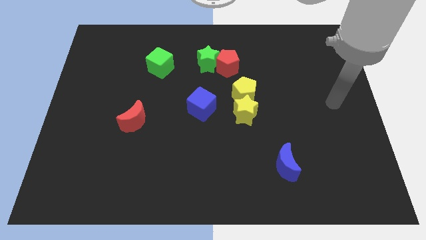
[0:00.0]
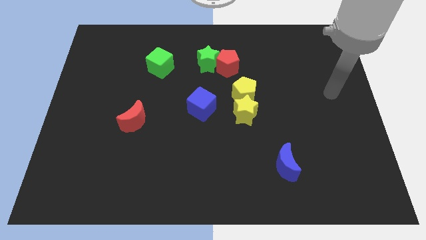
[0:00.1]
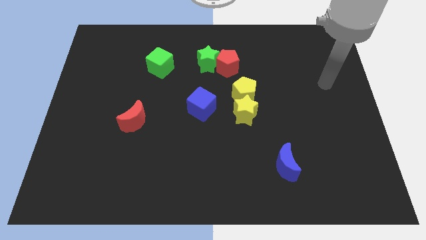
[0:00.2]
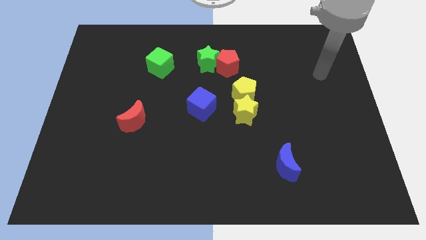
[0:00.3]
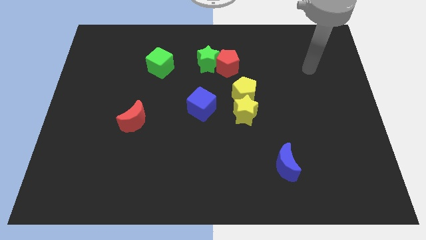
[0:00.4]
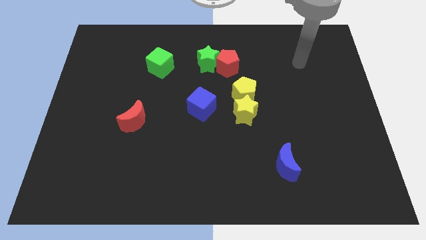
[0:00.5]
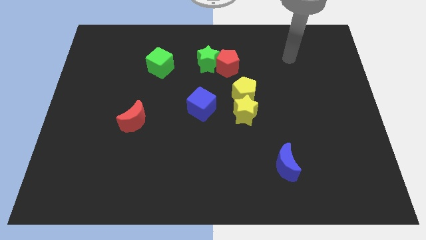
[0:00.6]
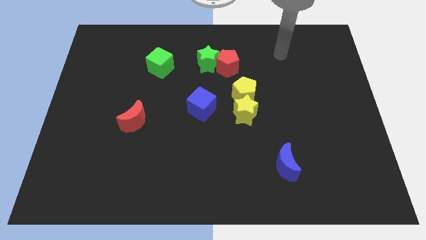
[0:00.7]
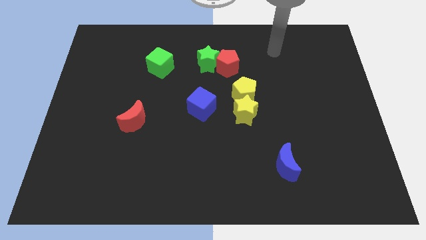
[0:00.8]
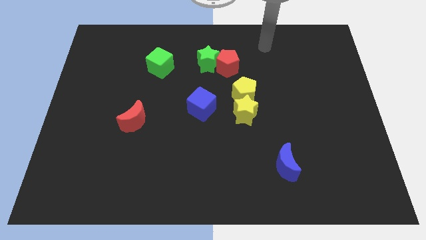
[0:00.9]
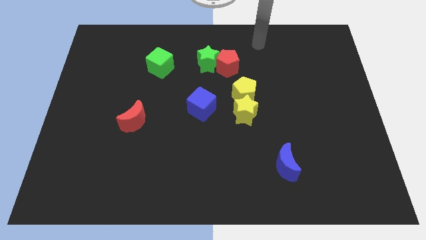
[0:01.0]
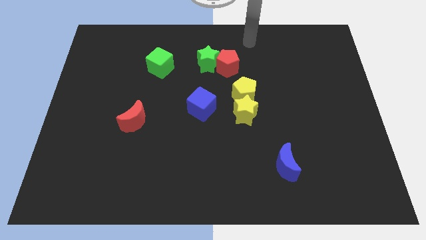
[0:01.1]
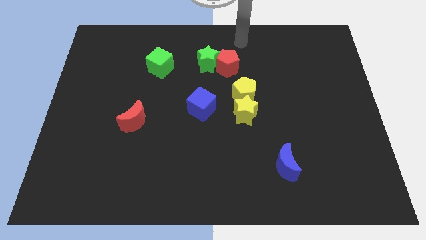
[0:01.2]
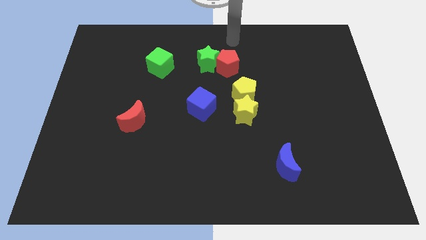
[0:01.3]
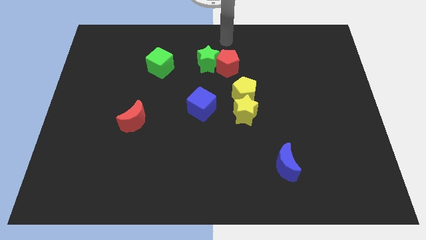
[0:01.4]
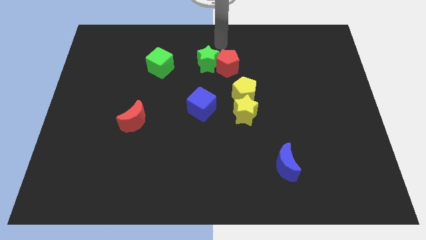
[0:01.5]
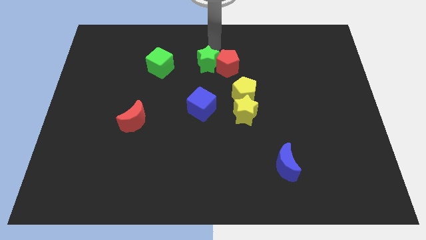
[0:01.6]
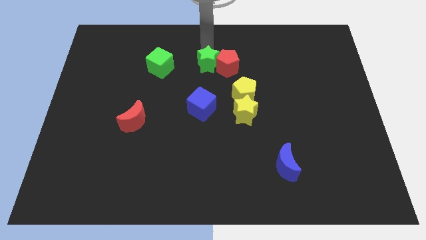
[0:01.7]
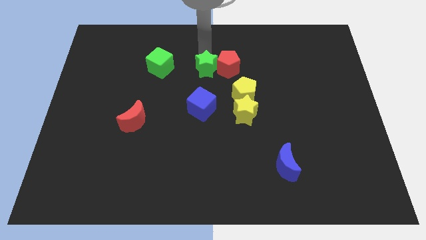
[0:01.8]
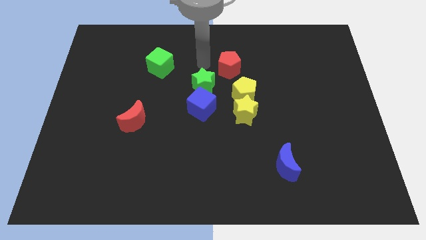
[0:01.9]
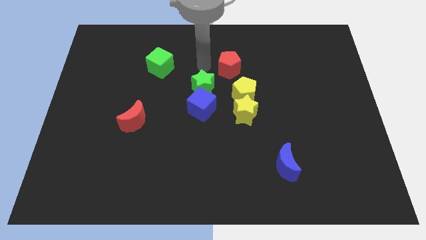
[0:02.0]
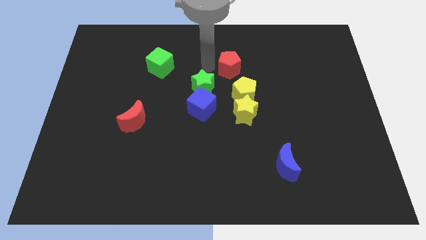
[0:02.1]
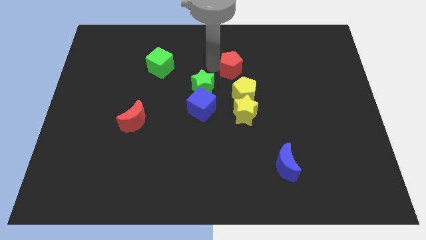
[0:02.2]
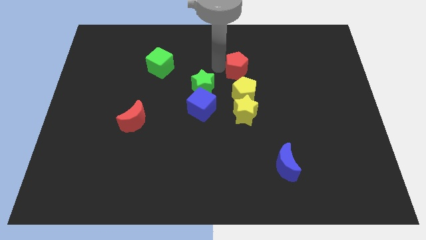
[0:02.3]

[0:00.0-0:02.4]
pull the red pentagon apart from the green star

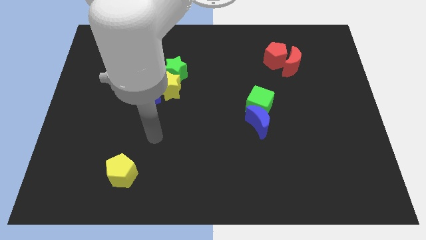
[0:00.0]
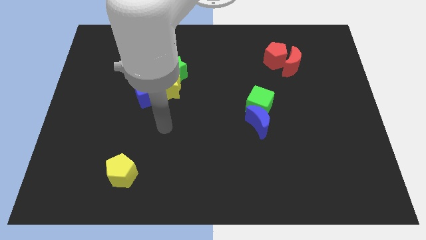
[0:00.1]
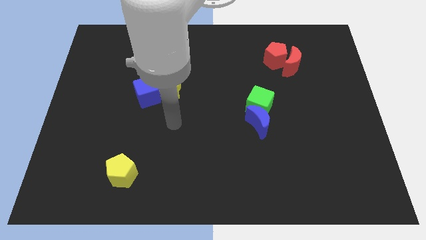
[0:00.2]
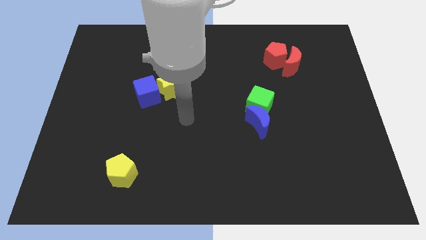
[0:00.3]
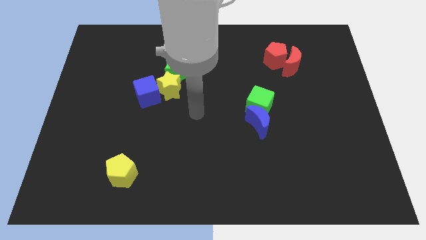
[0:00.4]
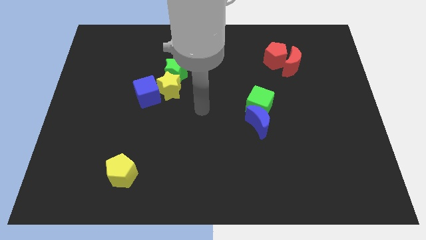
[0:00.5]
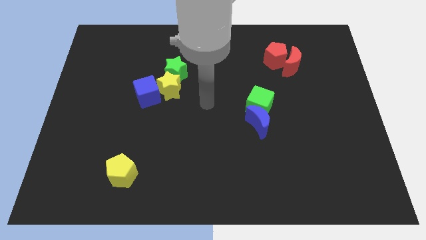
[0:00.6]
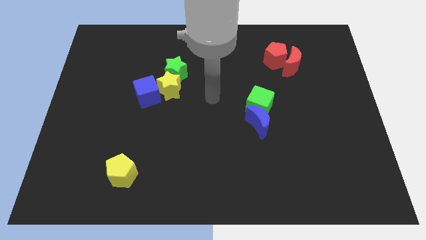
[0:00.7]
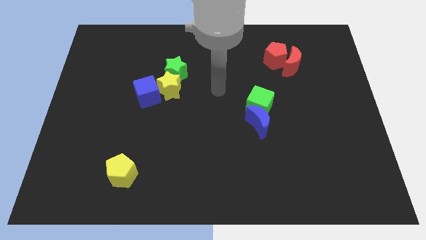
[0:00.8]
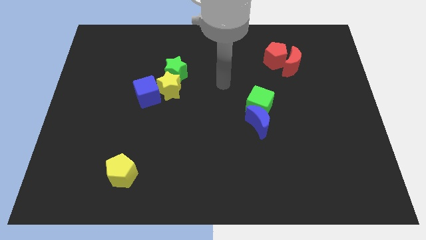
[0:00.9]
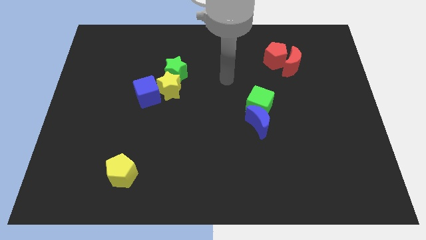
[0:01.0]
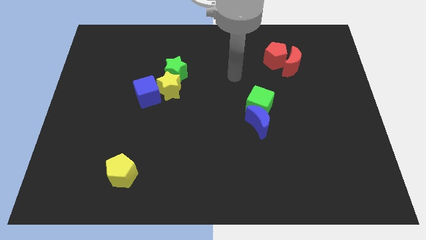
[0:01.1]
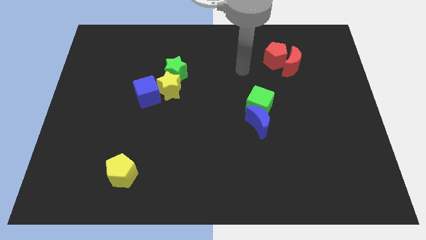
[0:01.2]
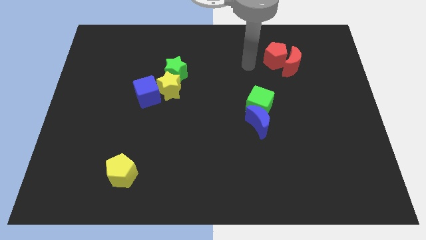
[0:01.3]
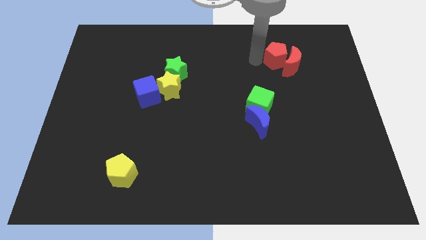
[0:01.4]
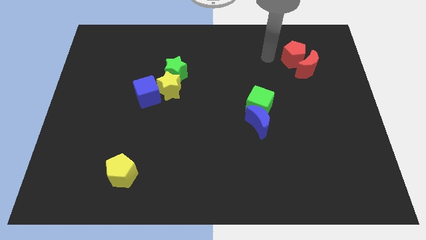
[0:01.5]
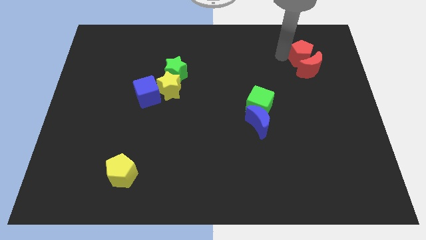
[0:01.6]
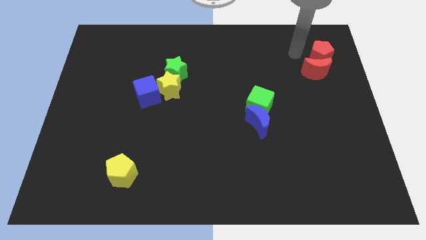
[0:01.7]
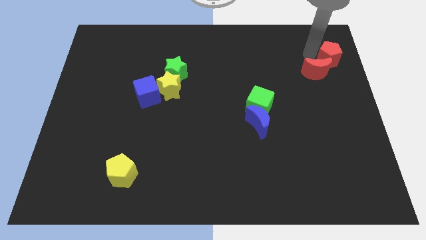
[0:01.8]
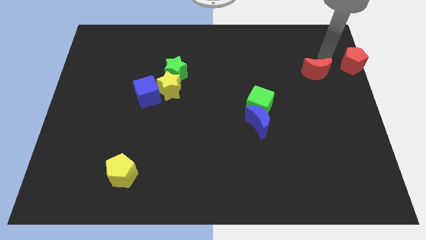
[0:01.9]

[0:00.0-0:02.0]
pull the red moon apart from the red pentagon

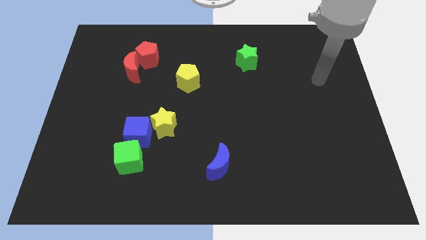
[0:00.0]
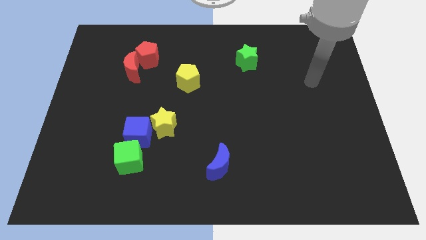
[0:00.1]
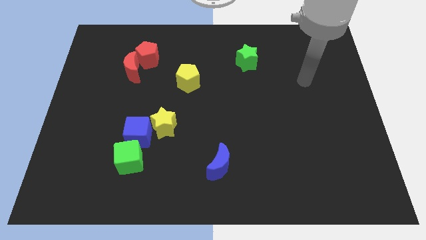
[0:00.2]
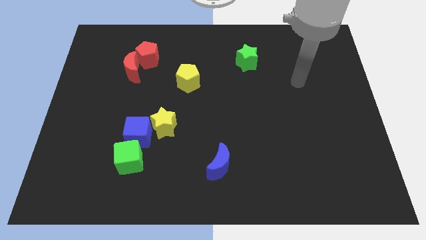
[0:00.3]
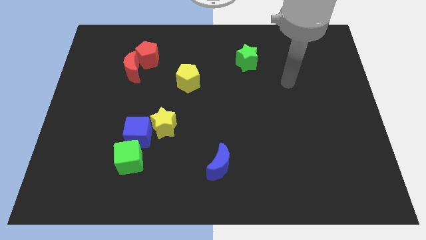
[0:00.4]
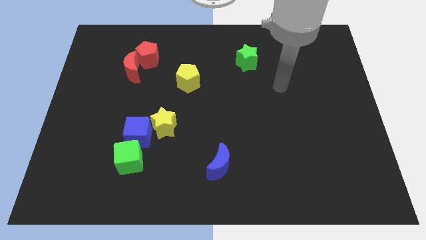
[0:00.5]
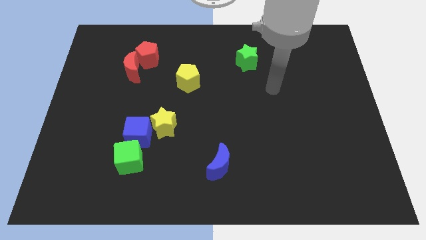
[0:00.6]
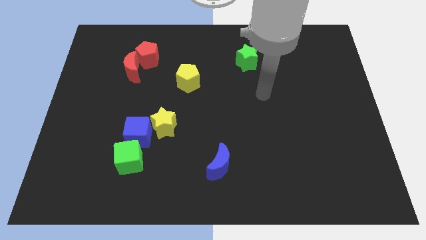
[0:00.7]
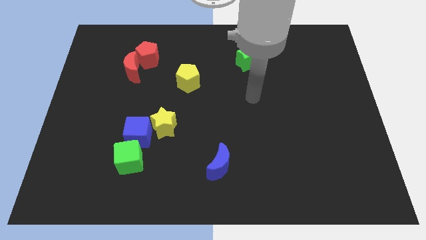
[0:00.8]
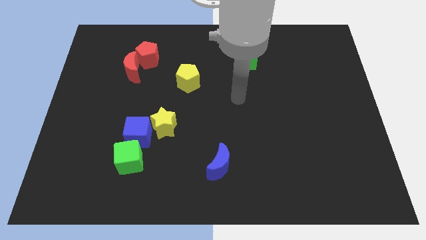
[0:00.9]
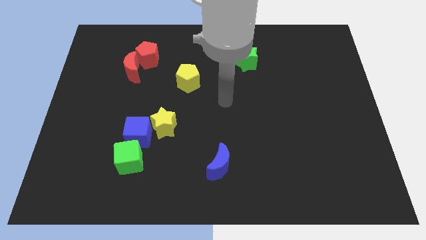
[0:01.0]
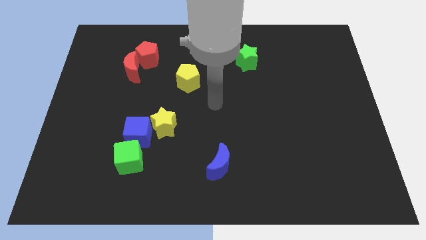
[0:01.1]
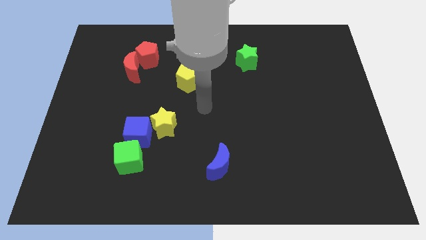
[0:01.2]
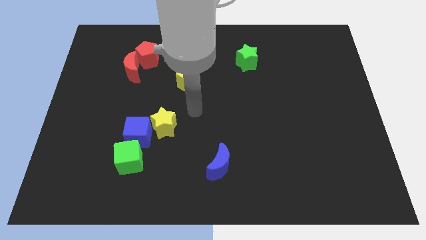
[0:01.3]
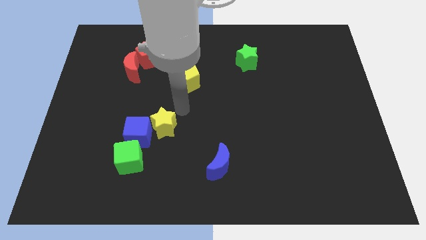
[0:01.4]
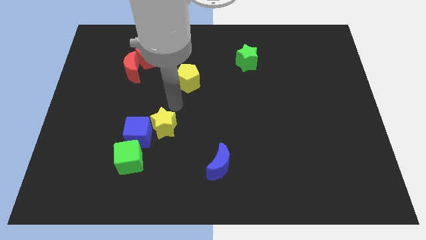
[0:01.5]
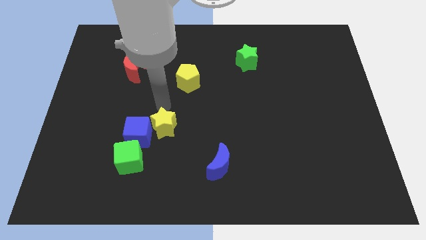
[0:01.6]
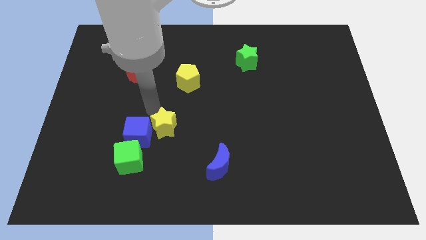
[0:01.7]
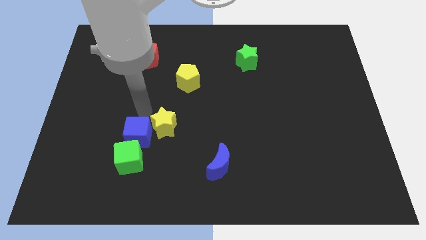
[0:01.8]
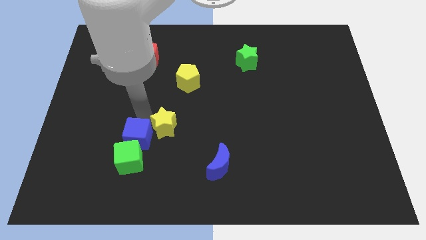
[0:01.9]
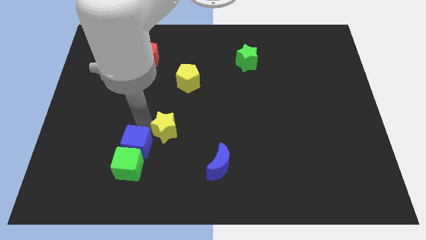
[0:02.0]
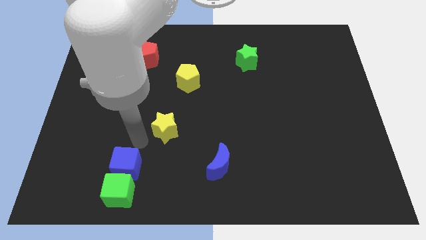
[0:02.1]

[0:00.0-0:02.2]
separate the yellow star from the blue cube

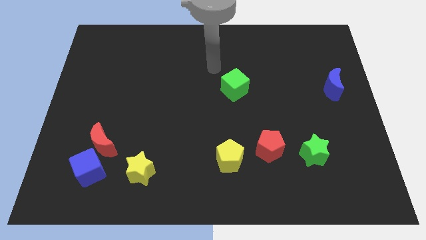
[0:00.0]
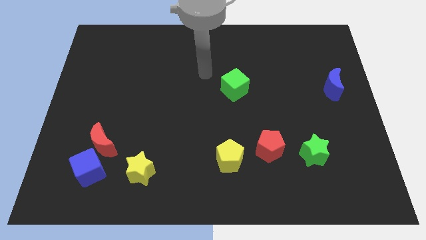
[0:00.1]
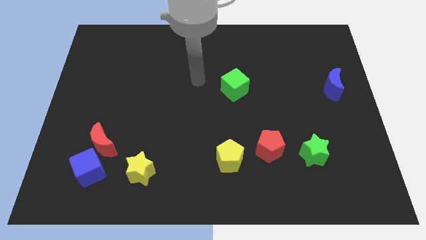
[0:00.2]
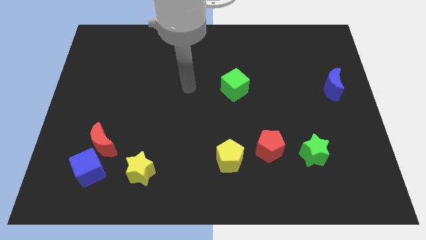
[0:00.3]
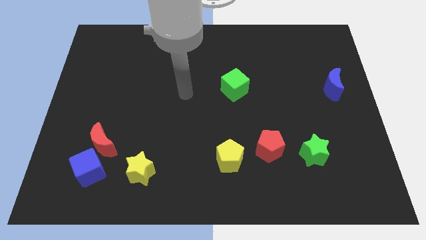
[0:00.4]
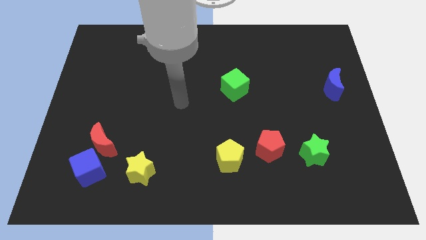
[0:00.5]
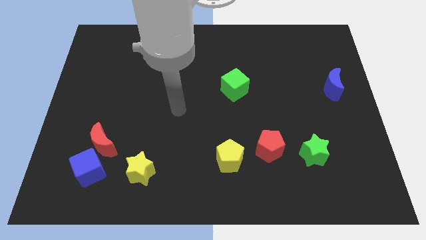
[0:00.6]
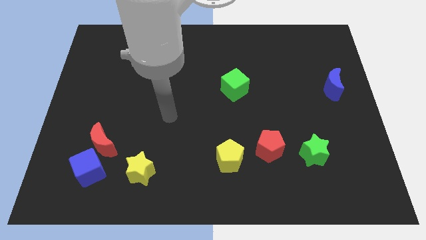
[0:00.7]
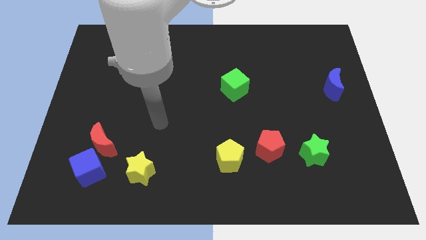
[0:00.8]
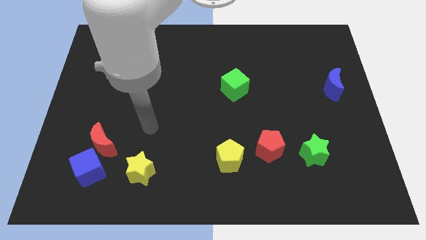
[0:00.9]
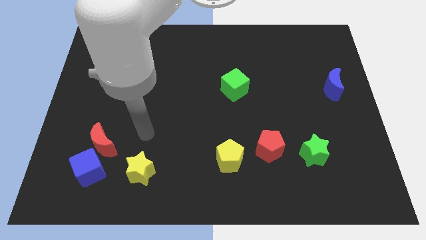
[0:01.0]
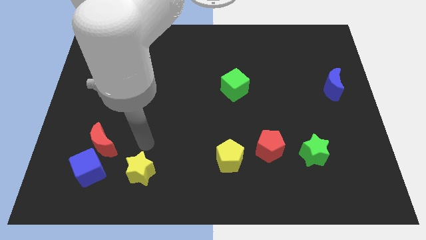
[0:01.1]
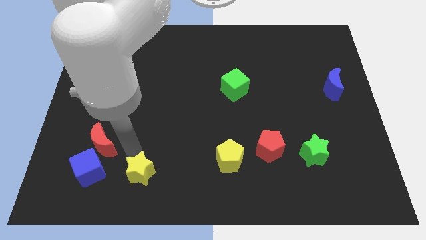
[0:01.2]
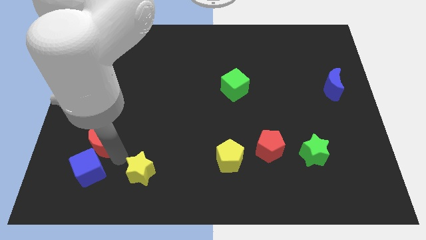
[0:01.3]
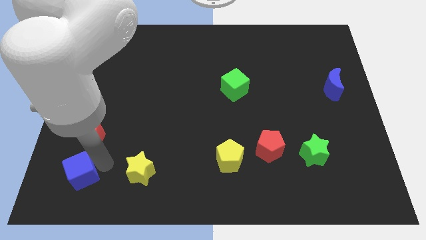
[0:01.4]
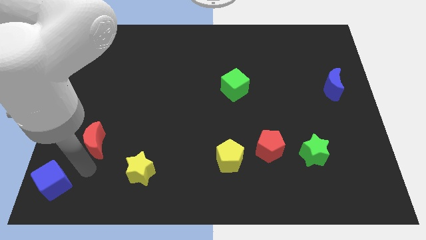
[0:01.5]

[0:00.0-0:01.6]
move the red moon away from the blue cube

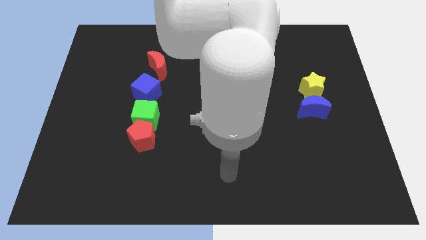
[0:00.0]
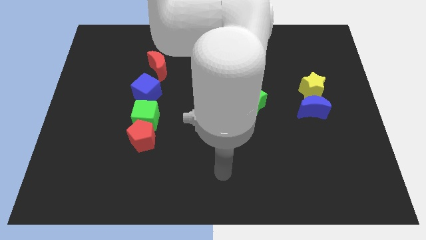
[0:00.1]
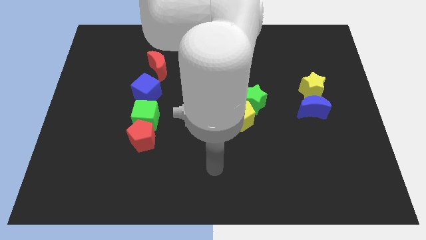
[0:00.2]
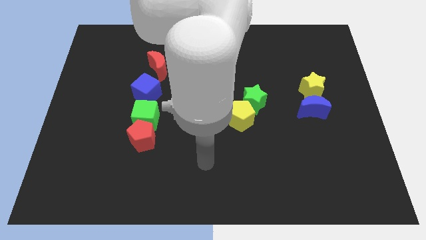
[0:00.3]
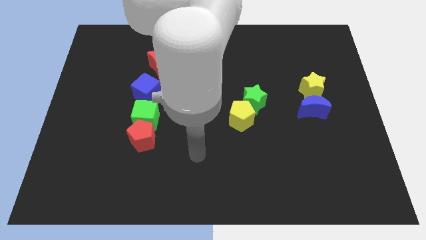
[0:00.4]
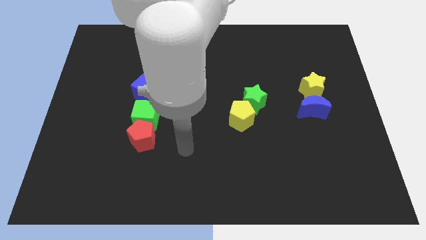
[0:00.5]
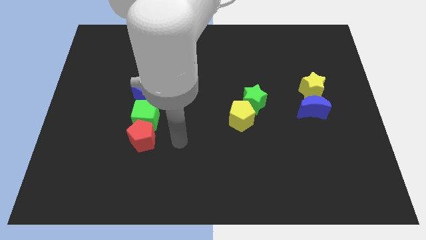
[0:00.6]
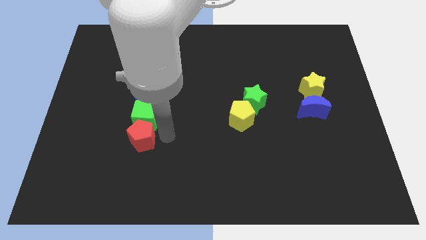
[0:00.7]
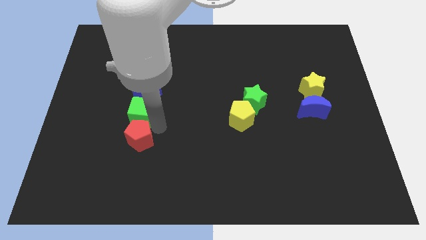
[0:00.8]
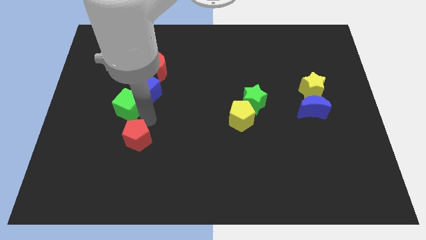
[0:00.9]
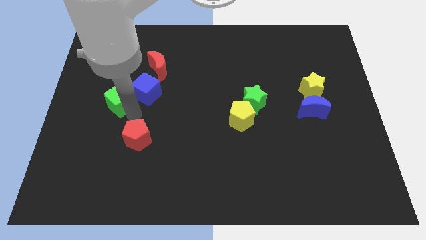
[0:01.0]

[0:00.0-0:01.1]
move the red pentagon away from the green cube

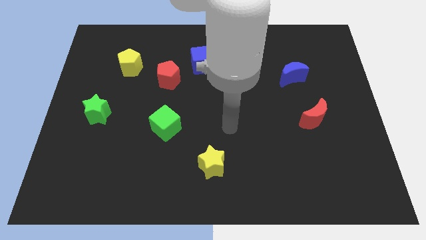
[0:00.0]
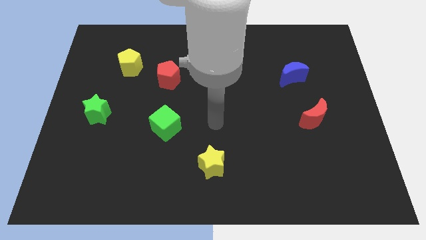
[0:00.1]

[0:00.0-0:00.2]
separate the red pentagon from the blue cube
